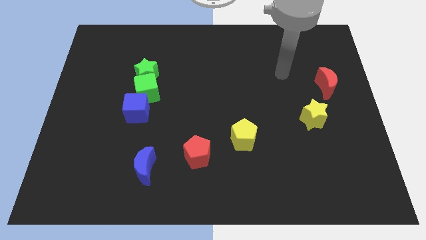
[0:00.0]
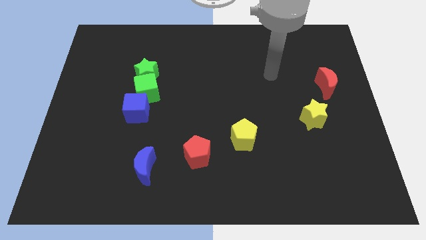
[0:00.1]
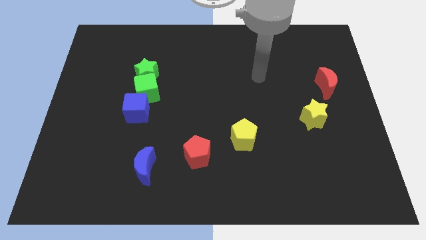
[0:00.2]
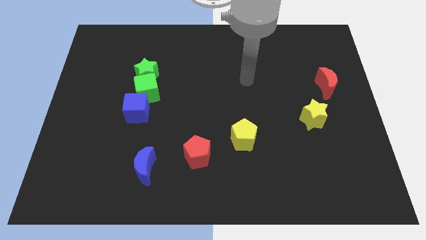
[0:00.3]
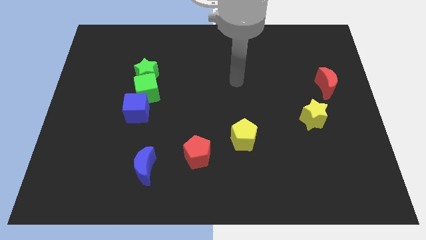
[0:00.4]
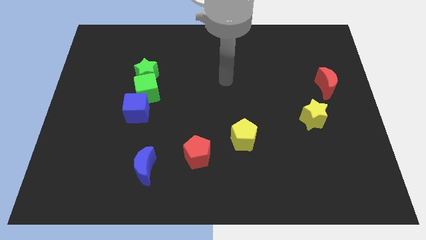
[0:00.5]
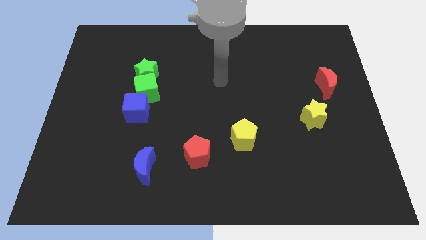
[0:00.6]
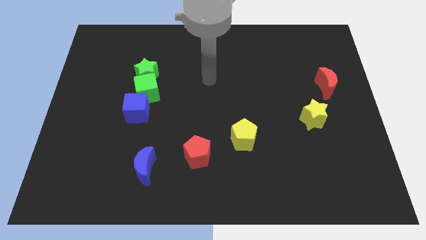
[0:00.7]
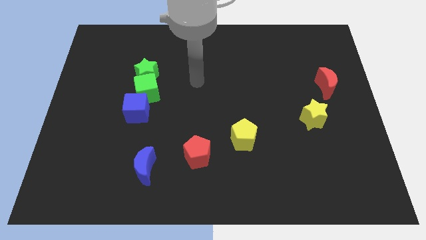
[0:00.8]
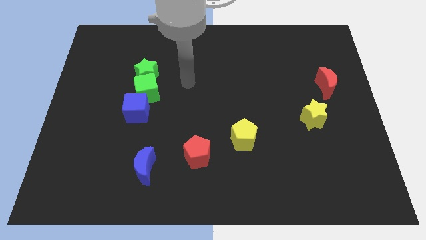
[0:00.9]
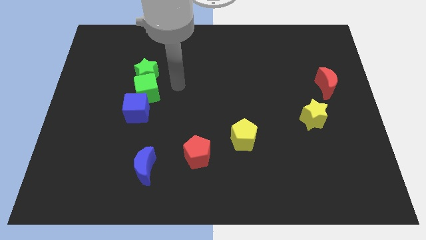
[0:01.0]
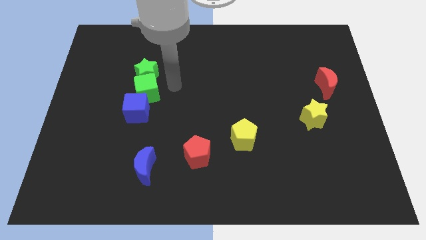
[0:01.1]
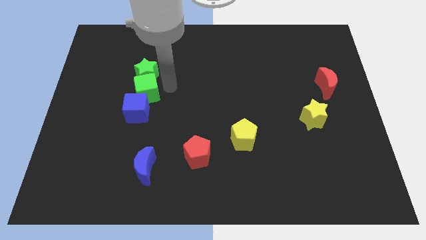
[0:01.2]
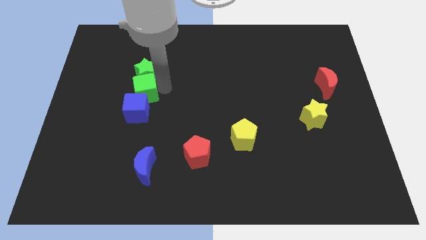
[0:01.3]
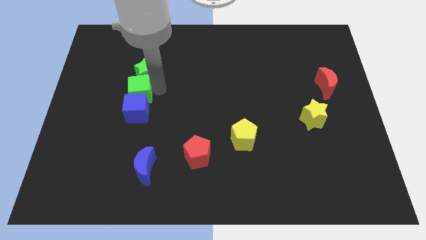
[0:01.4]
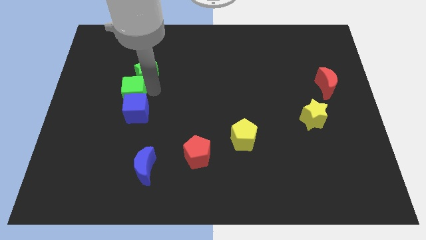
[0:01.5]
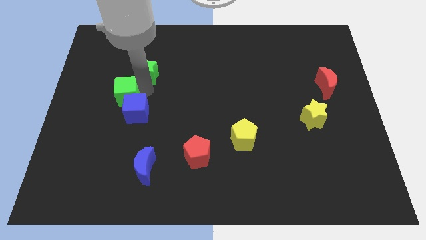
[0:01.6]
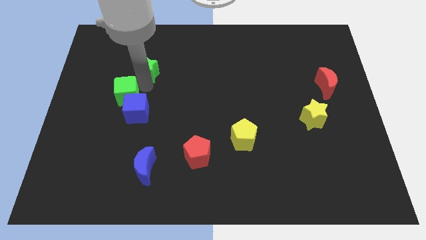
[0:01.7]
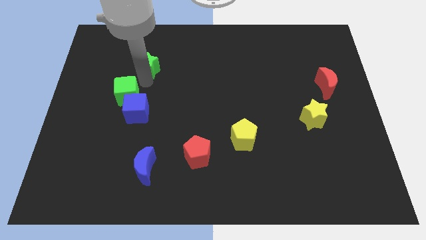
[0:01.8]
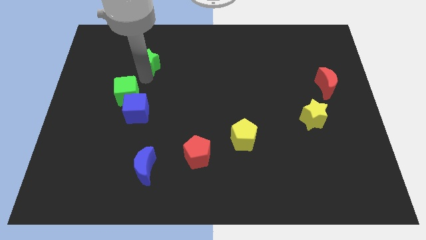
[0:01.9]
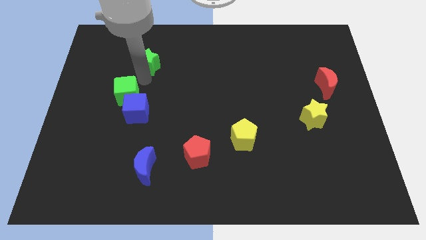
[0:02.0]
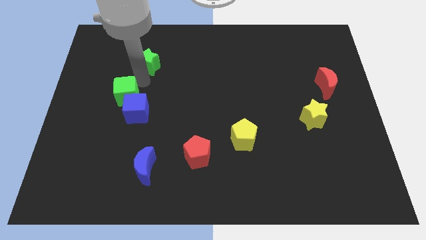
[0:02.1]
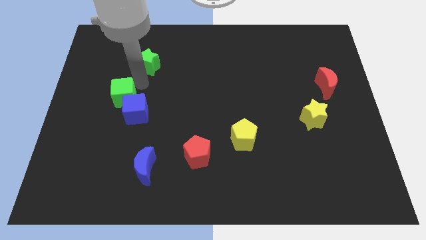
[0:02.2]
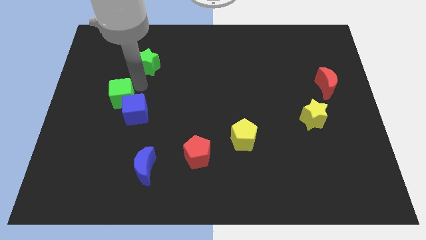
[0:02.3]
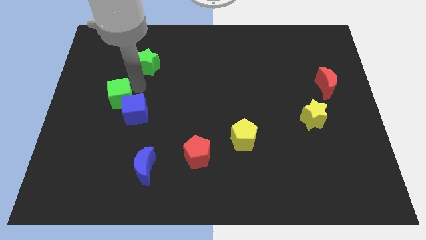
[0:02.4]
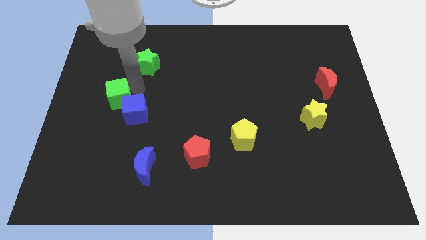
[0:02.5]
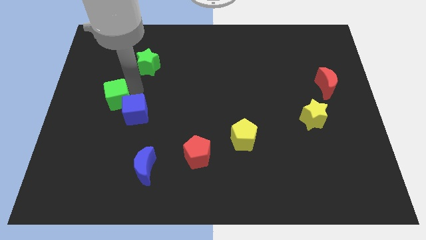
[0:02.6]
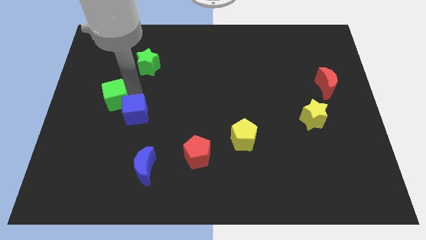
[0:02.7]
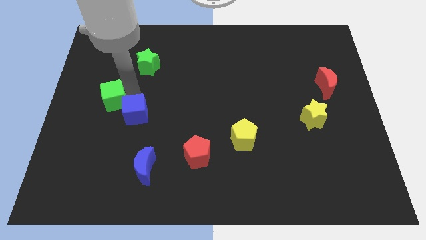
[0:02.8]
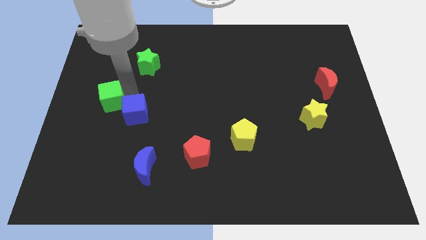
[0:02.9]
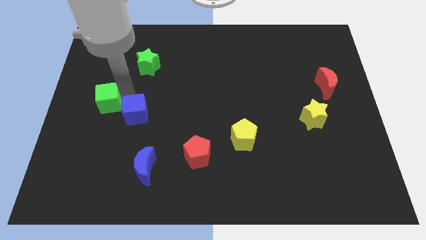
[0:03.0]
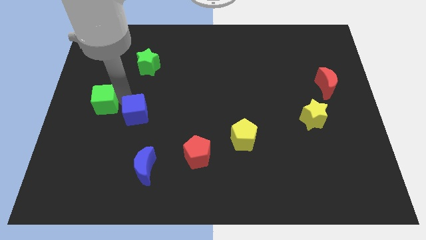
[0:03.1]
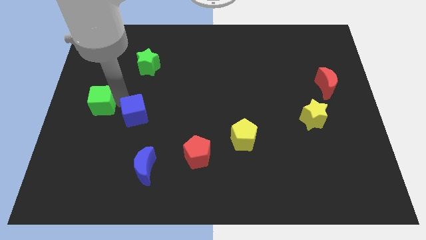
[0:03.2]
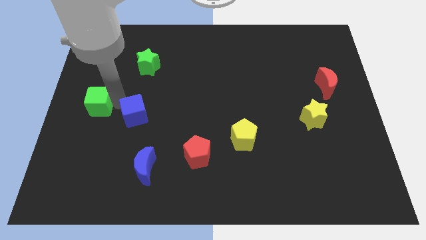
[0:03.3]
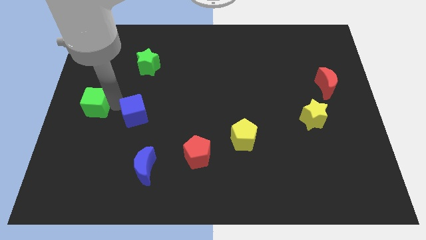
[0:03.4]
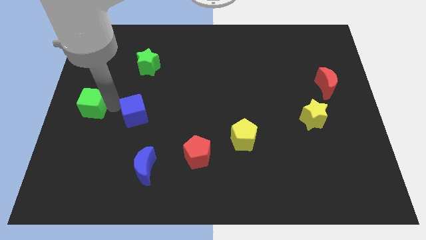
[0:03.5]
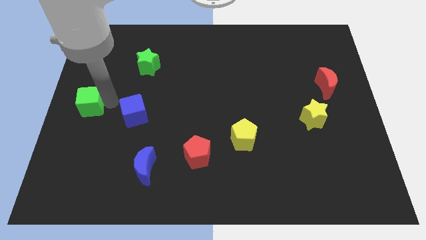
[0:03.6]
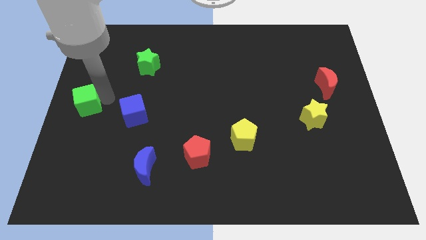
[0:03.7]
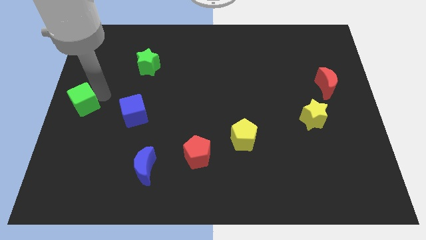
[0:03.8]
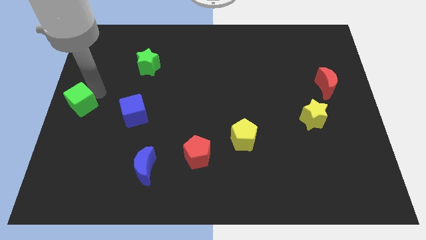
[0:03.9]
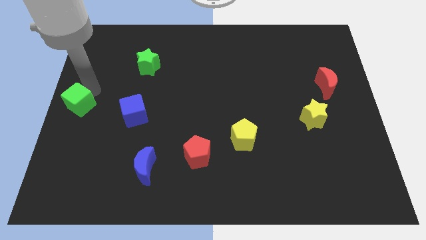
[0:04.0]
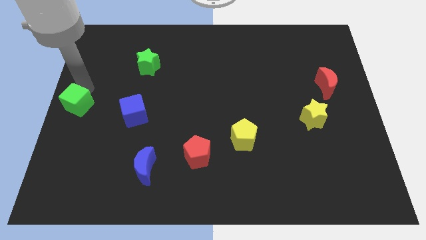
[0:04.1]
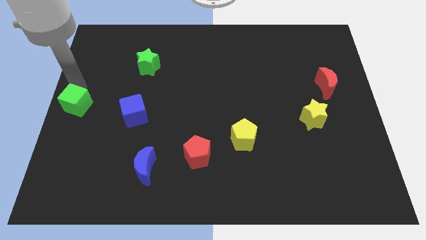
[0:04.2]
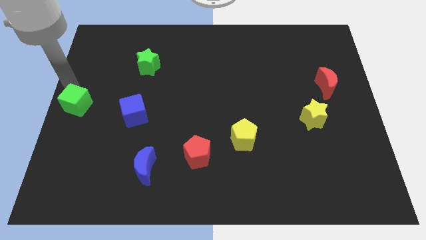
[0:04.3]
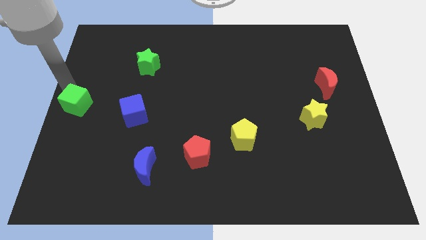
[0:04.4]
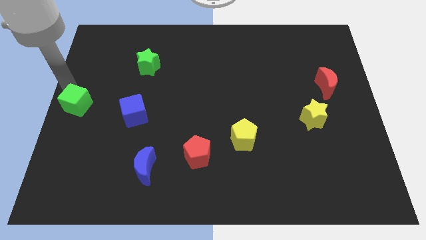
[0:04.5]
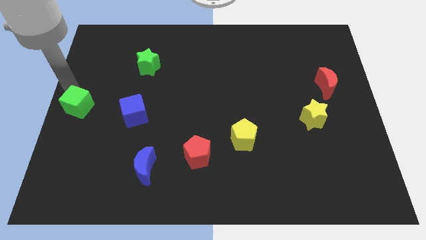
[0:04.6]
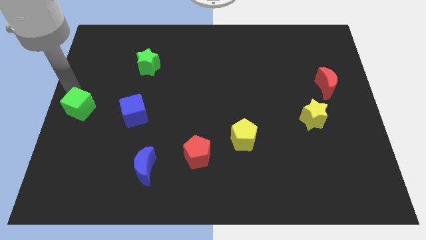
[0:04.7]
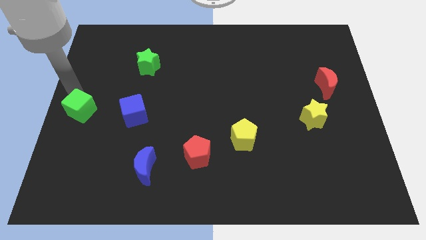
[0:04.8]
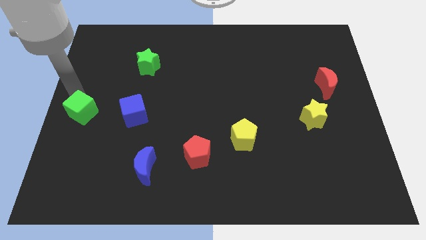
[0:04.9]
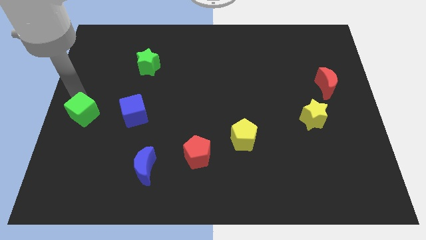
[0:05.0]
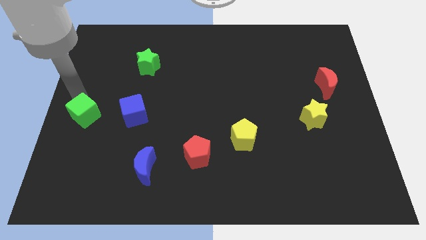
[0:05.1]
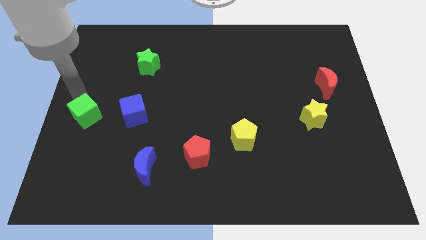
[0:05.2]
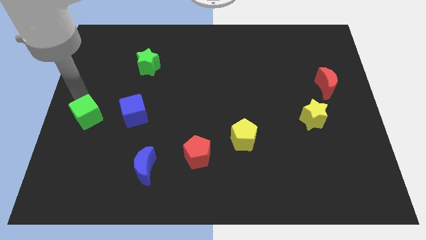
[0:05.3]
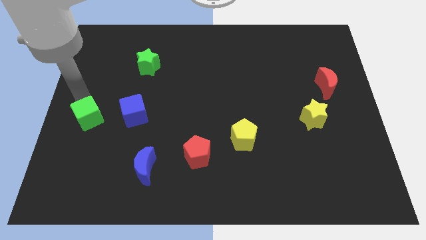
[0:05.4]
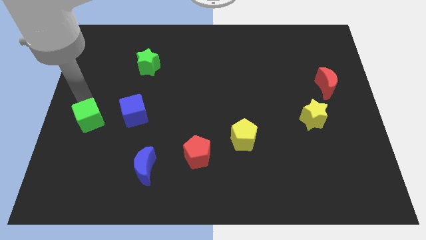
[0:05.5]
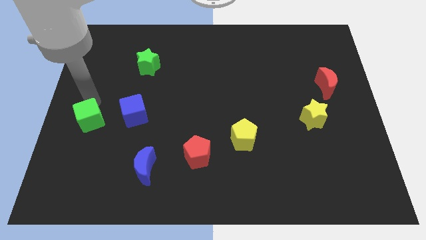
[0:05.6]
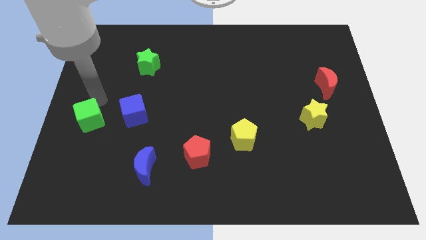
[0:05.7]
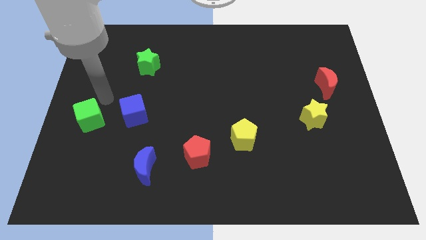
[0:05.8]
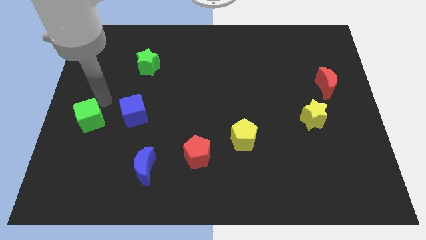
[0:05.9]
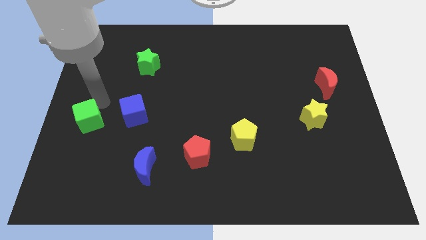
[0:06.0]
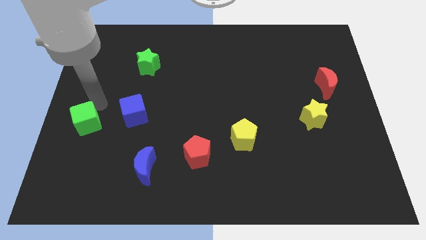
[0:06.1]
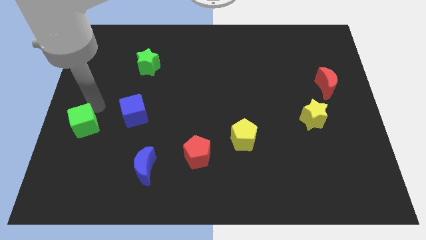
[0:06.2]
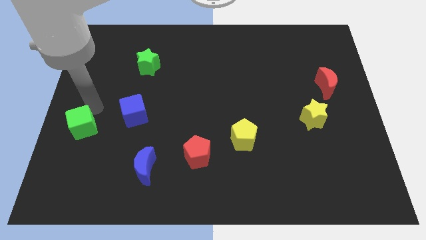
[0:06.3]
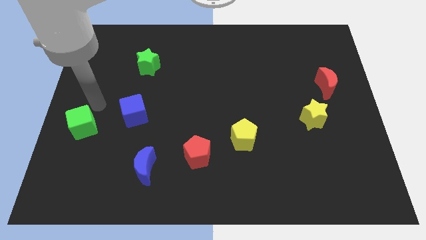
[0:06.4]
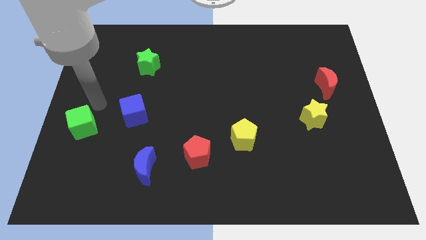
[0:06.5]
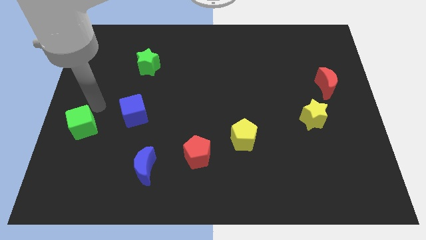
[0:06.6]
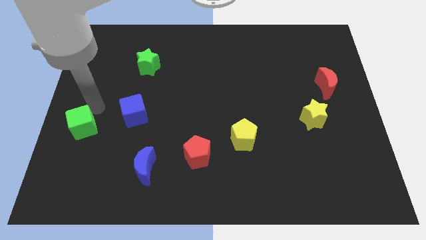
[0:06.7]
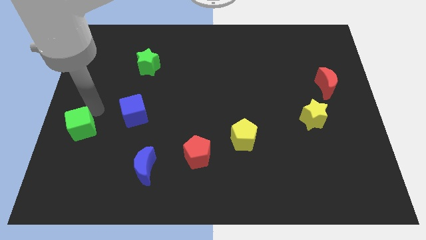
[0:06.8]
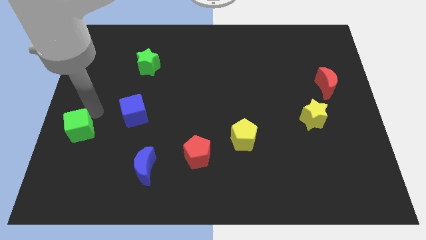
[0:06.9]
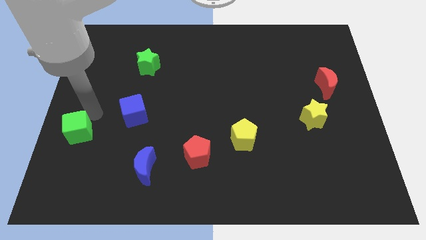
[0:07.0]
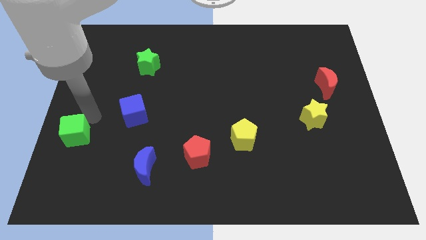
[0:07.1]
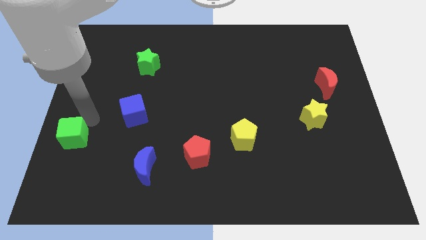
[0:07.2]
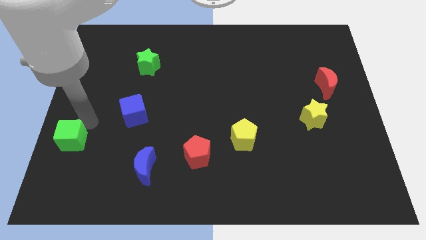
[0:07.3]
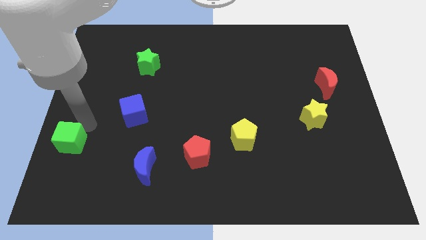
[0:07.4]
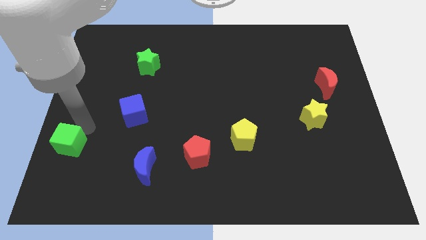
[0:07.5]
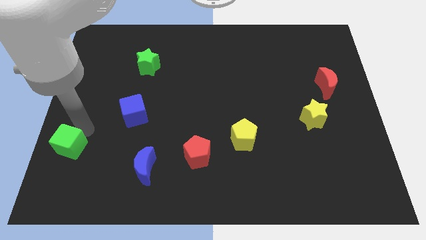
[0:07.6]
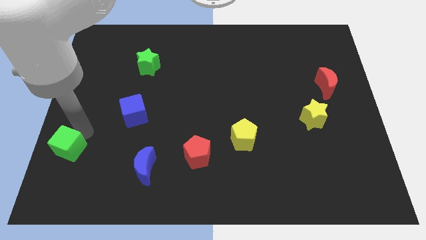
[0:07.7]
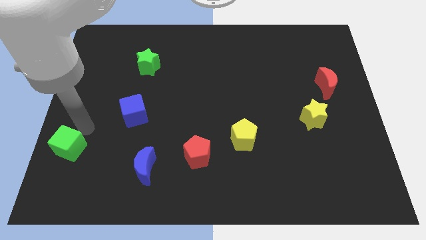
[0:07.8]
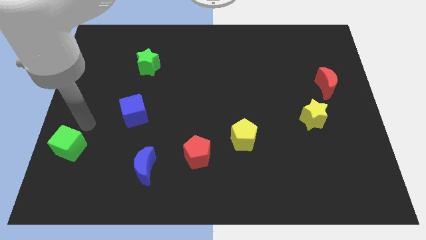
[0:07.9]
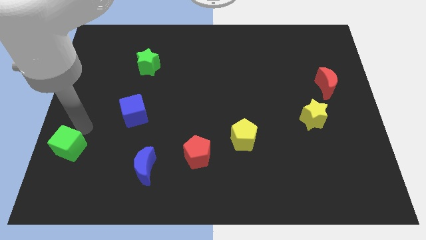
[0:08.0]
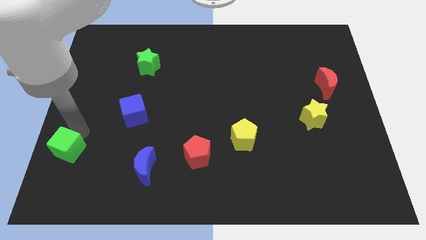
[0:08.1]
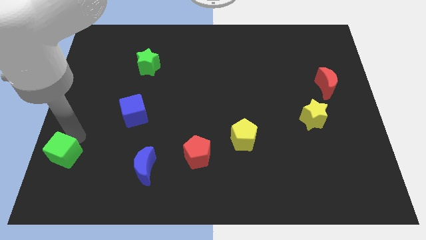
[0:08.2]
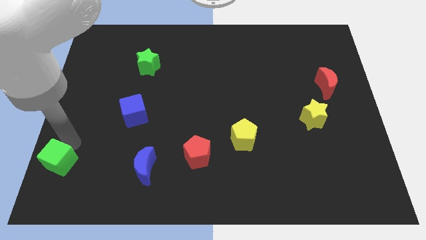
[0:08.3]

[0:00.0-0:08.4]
push the green cube to the bottom left

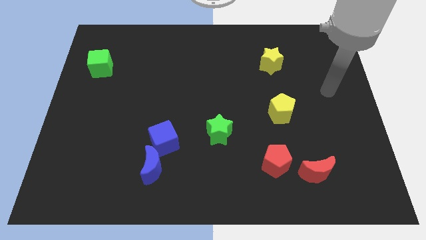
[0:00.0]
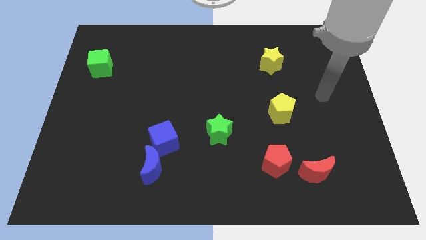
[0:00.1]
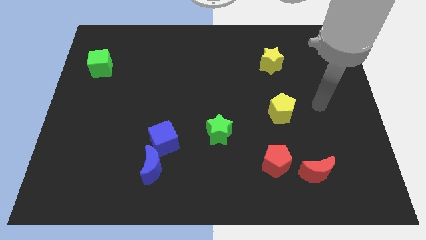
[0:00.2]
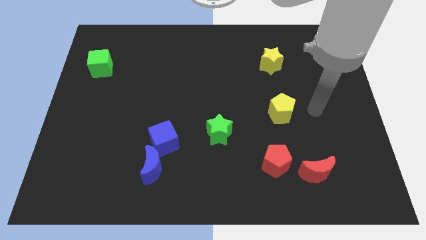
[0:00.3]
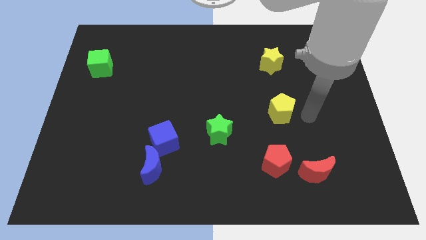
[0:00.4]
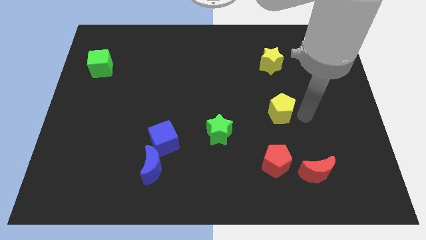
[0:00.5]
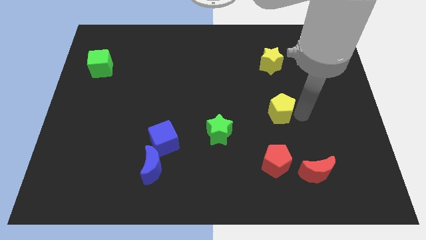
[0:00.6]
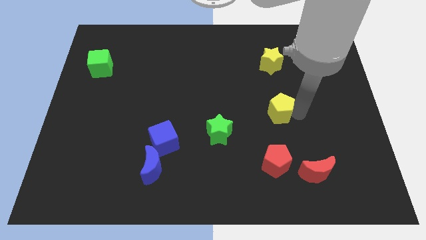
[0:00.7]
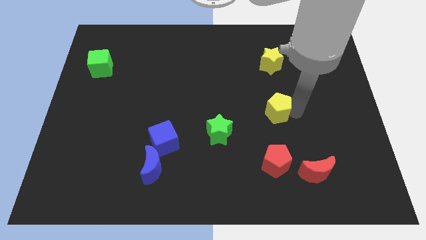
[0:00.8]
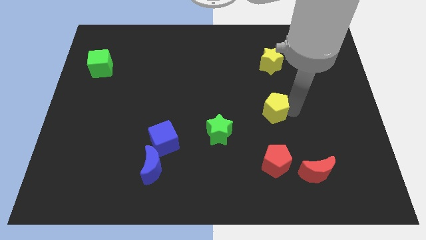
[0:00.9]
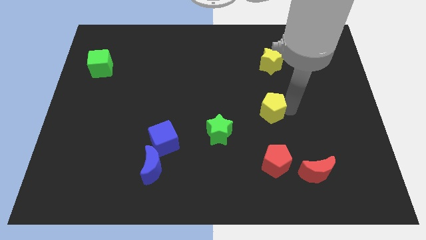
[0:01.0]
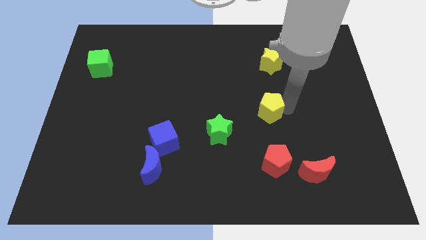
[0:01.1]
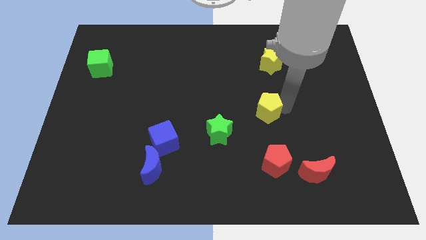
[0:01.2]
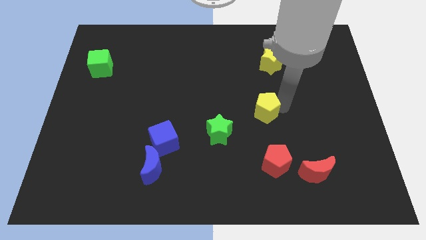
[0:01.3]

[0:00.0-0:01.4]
push the yellow pentagon to the middle
